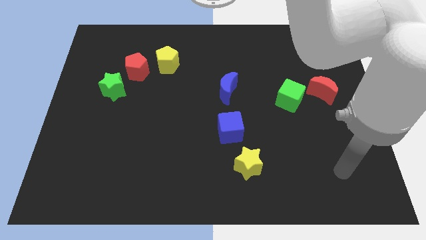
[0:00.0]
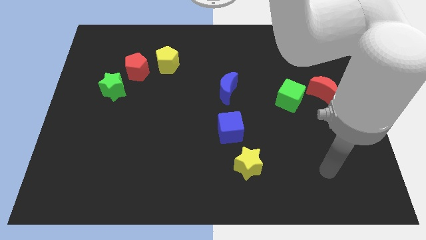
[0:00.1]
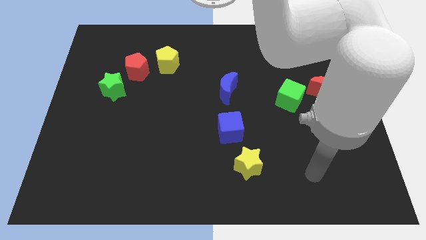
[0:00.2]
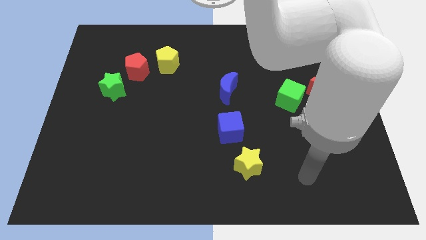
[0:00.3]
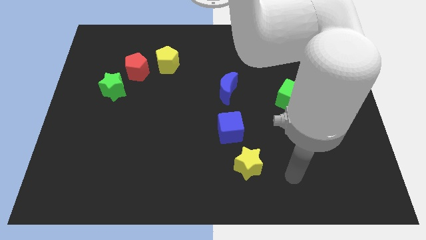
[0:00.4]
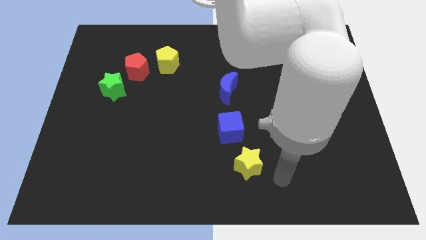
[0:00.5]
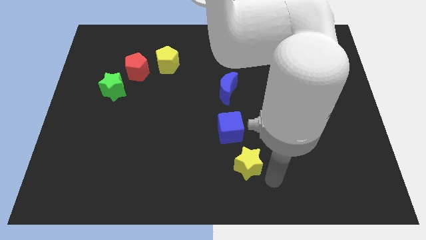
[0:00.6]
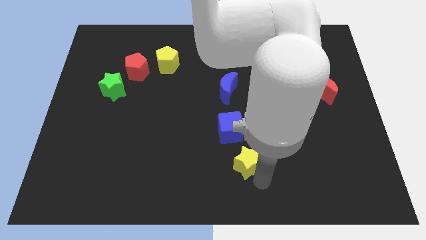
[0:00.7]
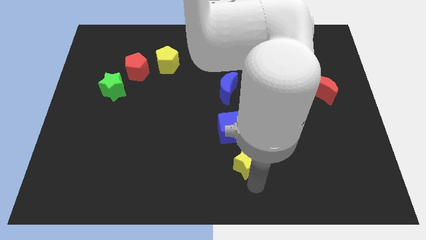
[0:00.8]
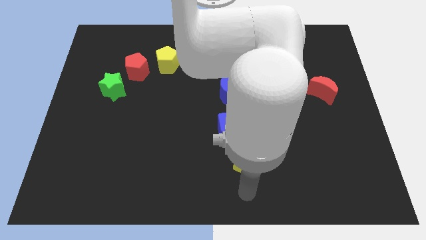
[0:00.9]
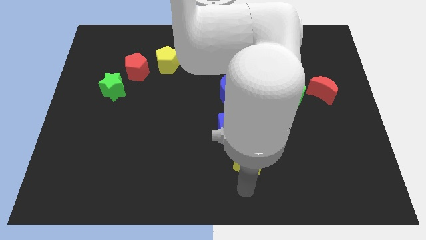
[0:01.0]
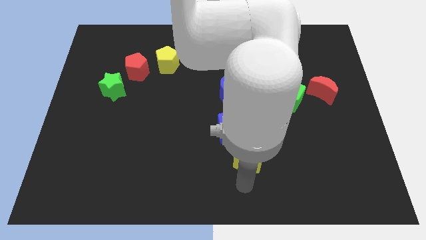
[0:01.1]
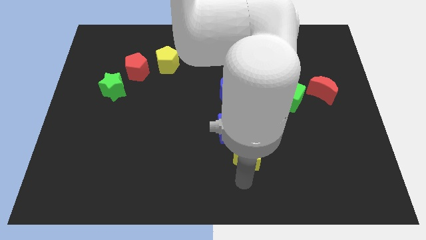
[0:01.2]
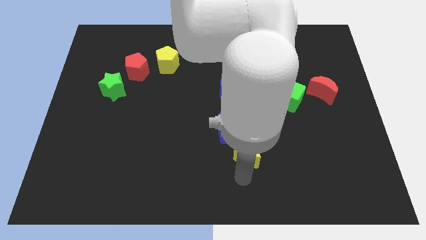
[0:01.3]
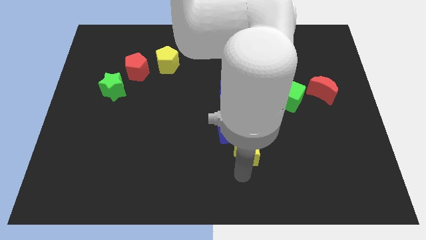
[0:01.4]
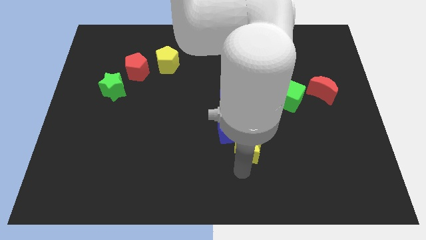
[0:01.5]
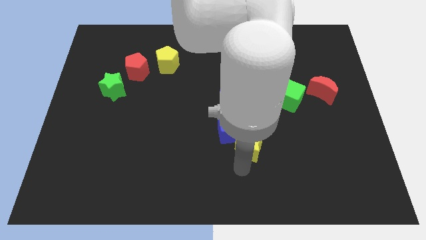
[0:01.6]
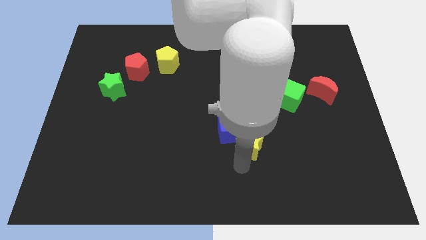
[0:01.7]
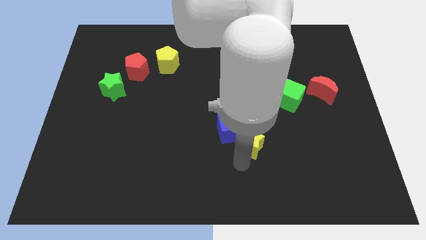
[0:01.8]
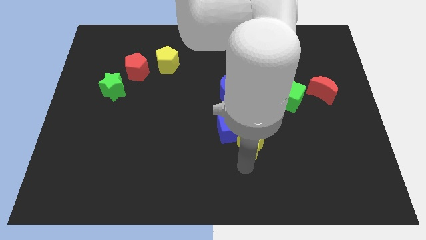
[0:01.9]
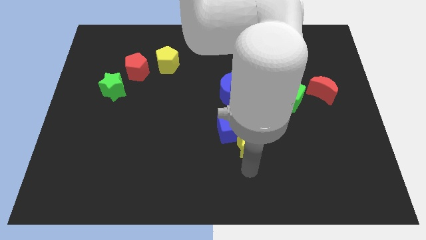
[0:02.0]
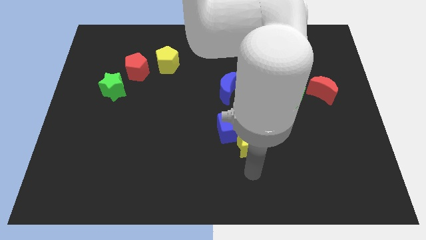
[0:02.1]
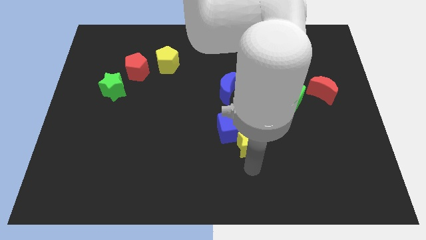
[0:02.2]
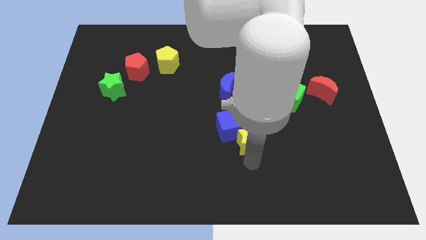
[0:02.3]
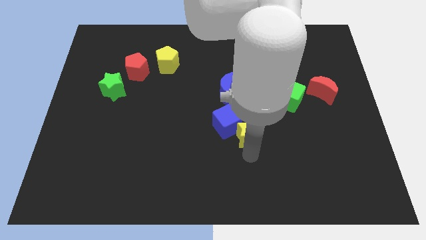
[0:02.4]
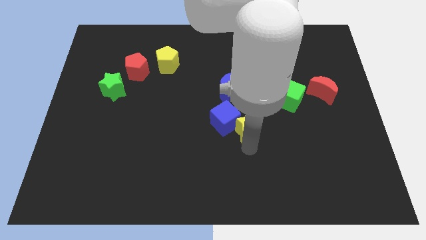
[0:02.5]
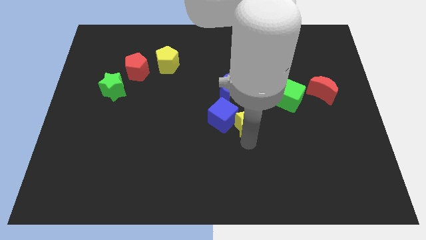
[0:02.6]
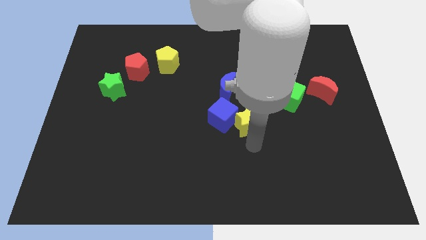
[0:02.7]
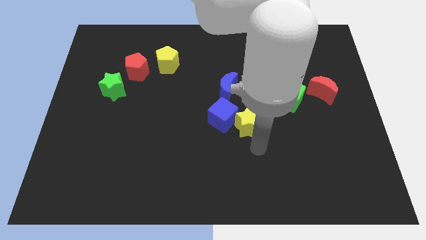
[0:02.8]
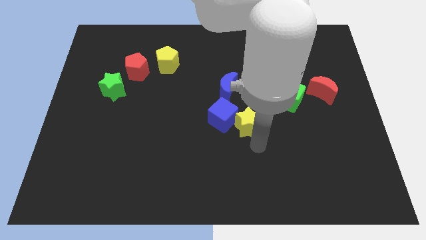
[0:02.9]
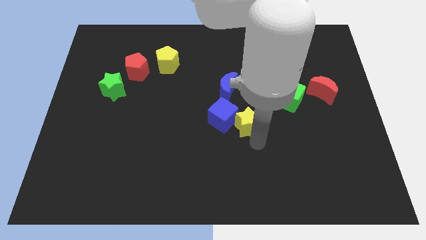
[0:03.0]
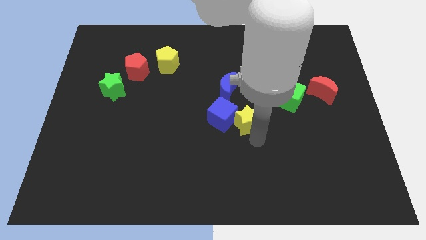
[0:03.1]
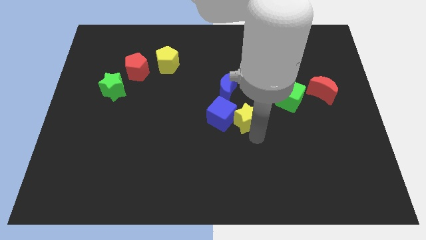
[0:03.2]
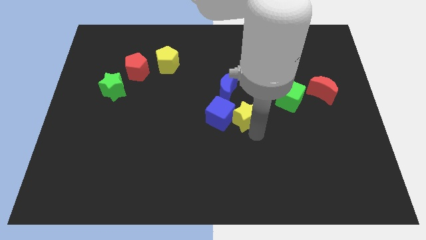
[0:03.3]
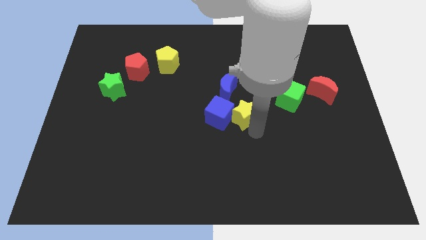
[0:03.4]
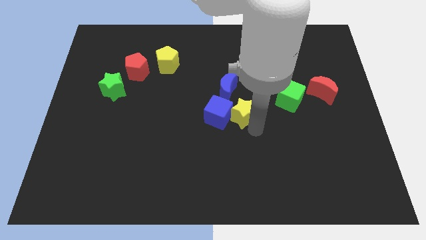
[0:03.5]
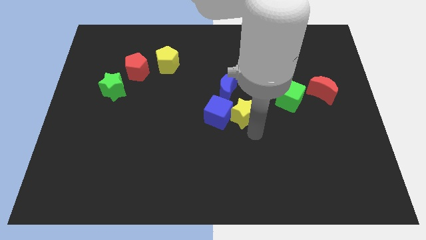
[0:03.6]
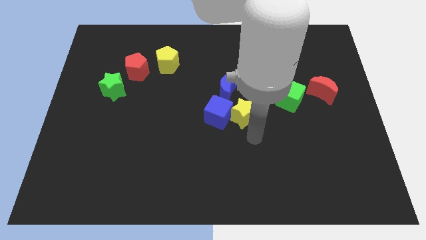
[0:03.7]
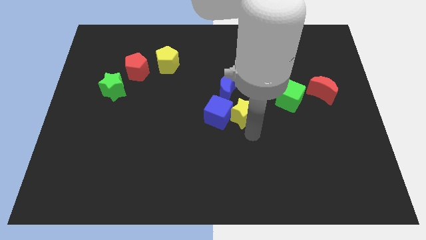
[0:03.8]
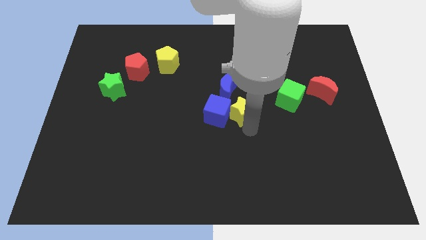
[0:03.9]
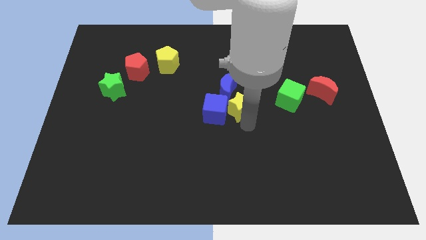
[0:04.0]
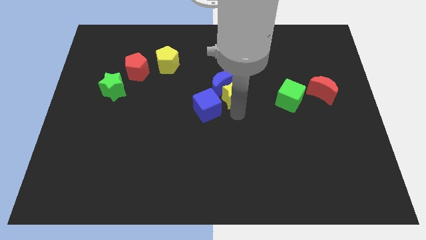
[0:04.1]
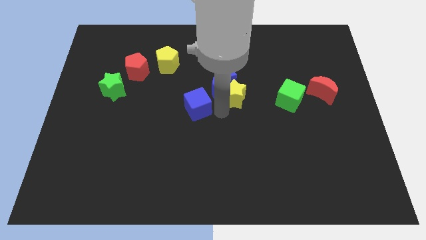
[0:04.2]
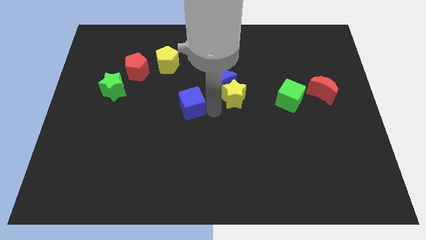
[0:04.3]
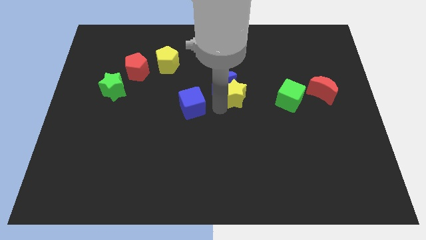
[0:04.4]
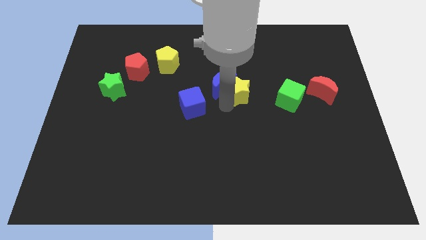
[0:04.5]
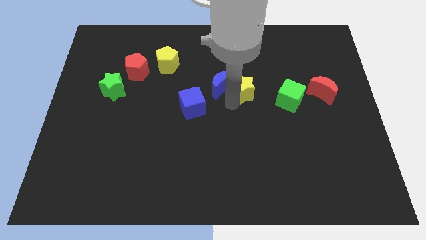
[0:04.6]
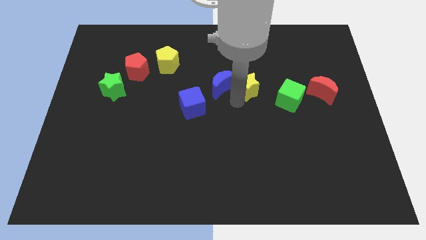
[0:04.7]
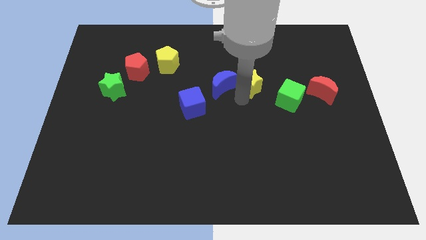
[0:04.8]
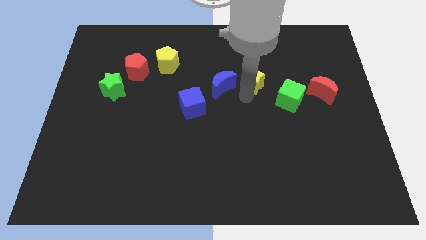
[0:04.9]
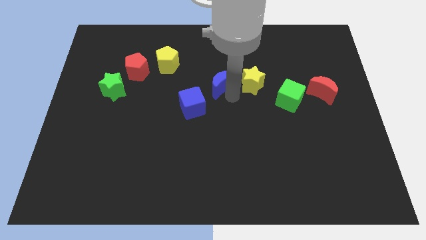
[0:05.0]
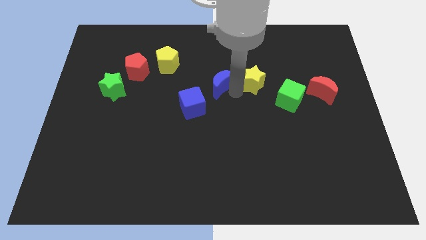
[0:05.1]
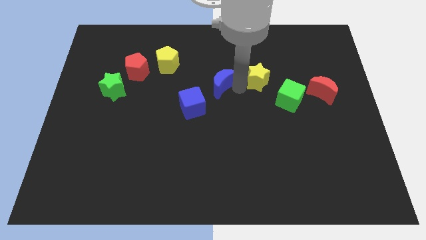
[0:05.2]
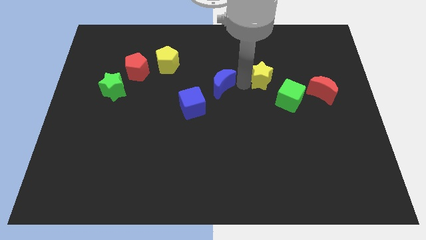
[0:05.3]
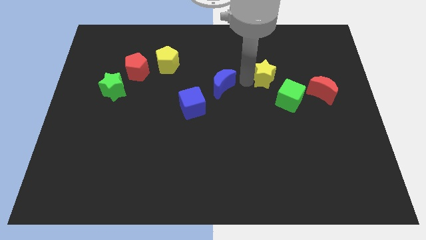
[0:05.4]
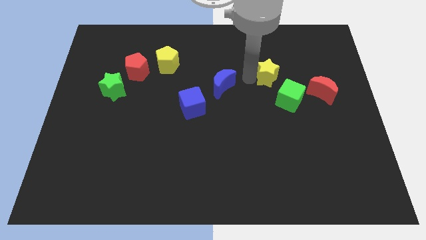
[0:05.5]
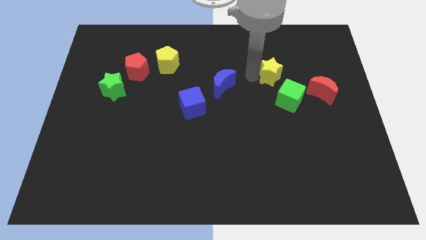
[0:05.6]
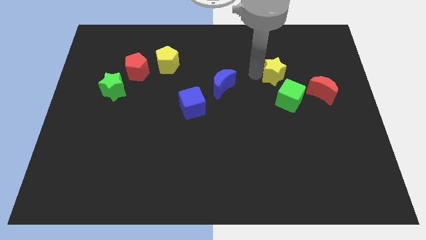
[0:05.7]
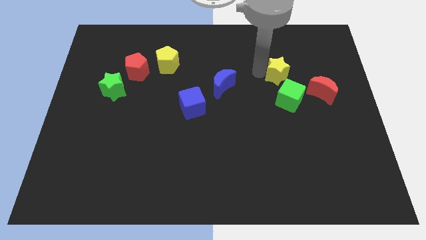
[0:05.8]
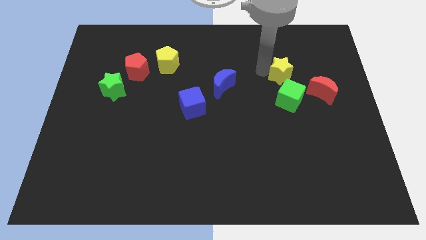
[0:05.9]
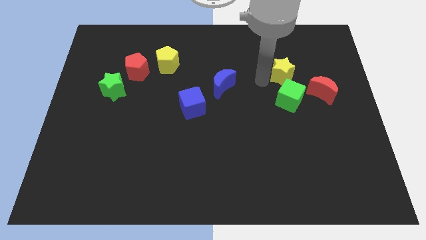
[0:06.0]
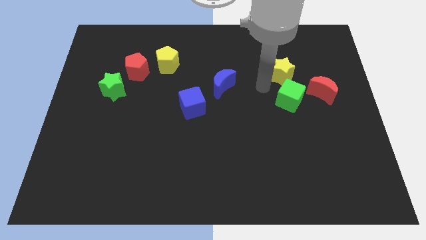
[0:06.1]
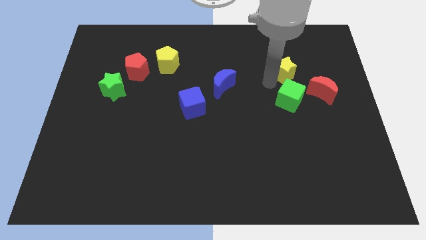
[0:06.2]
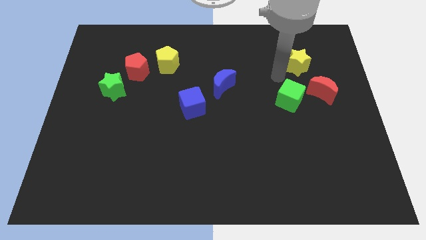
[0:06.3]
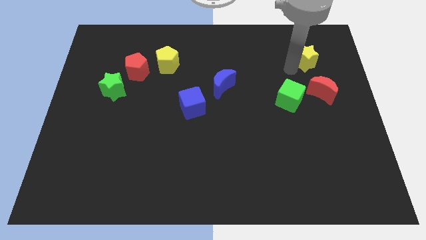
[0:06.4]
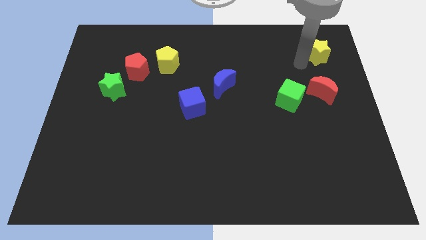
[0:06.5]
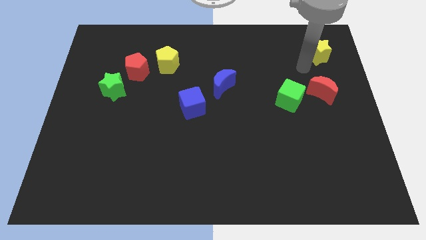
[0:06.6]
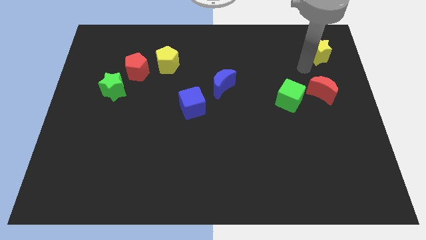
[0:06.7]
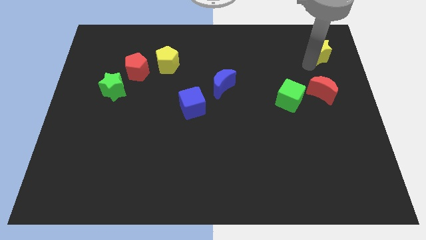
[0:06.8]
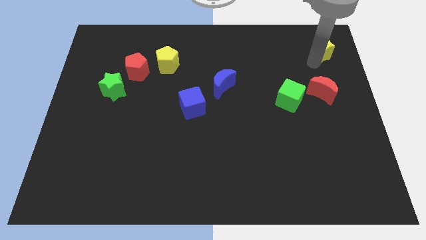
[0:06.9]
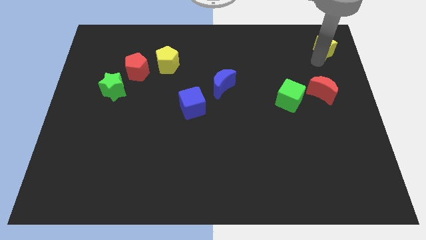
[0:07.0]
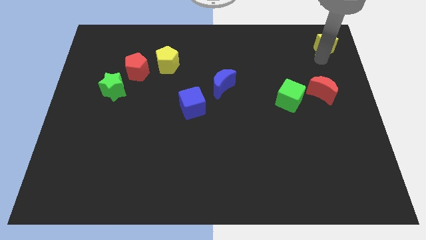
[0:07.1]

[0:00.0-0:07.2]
push the yellow star to the top right corner
